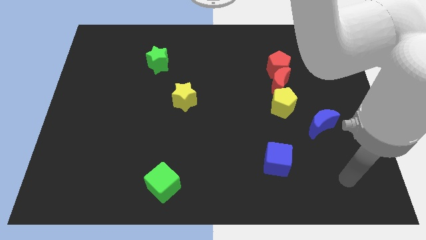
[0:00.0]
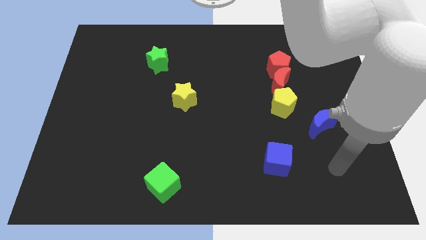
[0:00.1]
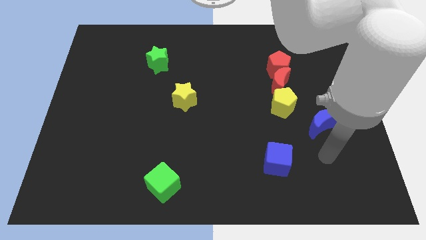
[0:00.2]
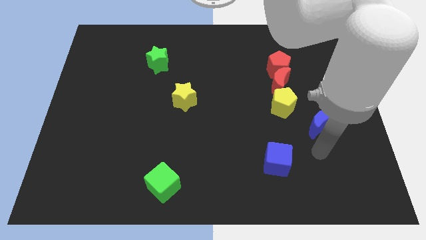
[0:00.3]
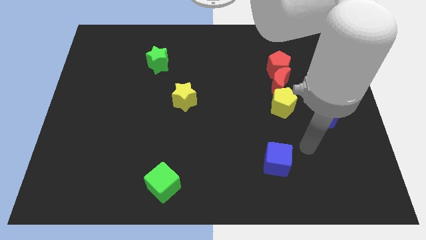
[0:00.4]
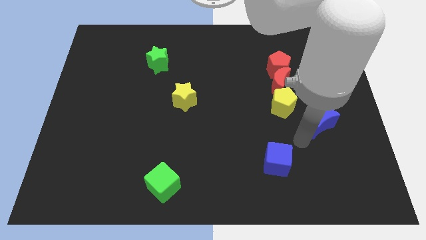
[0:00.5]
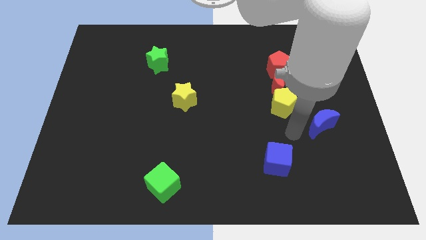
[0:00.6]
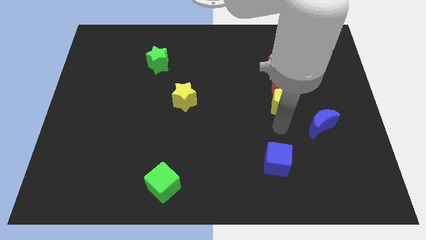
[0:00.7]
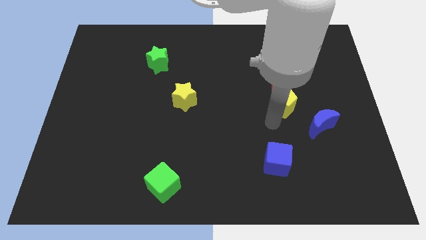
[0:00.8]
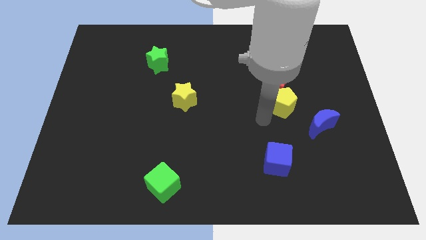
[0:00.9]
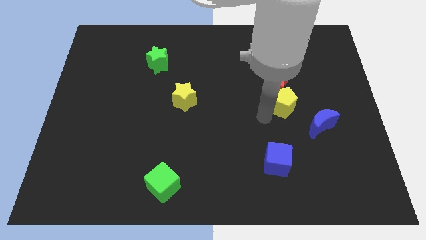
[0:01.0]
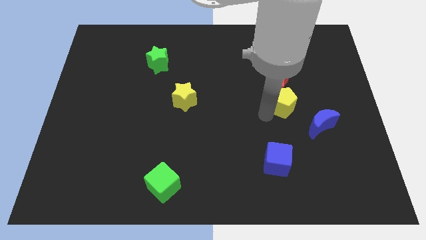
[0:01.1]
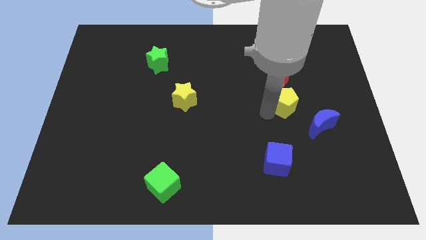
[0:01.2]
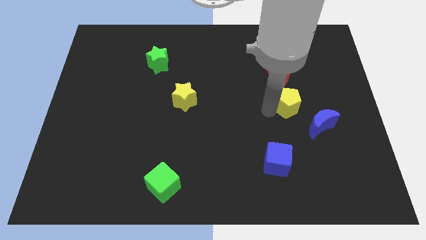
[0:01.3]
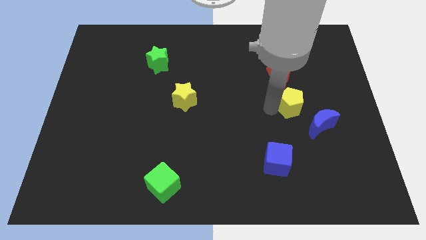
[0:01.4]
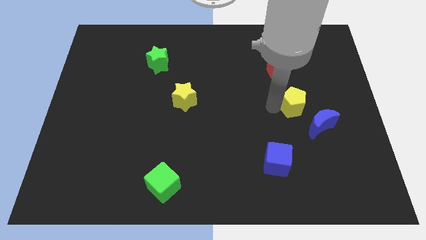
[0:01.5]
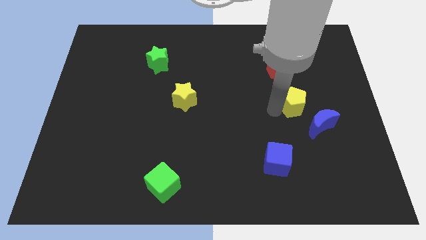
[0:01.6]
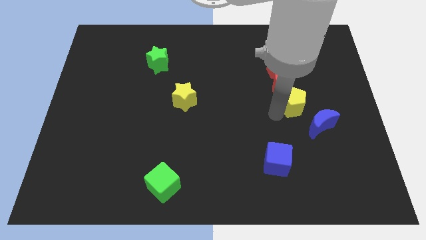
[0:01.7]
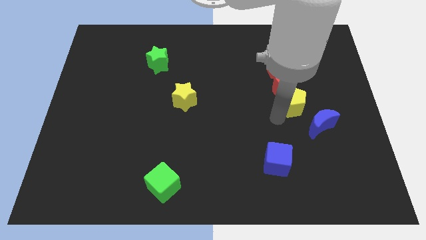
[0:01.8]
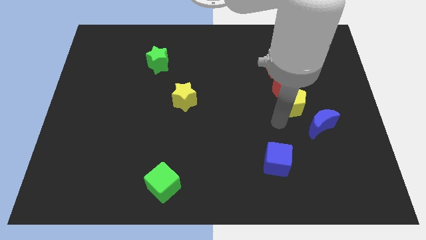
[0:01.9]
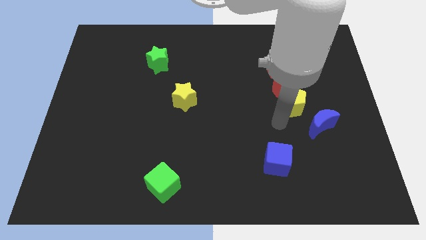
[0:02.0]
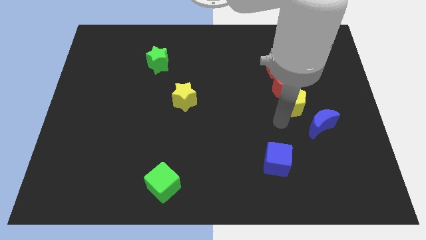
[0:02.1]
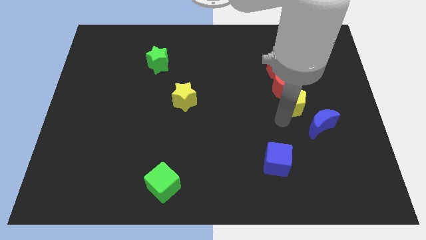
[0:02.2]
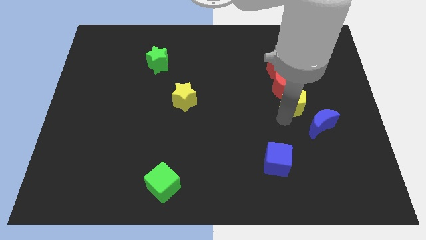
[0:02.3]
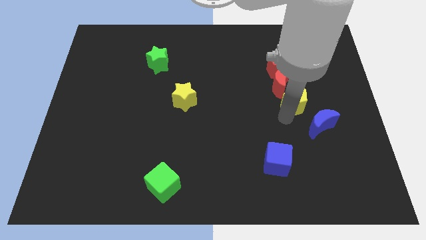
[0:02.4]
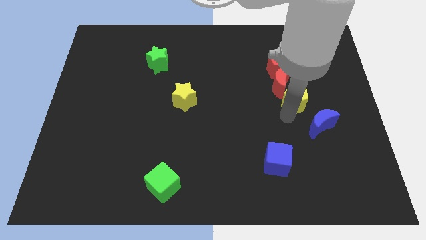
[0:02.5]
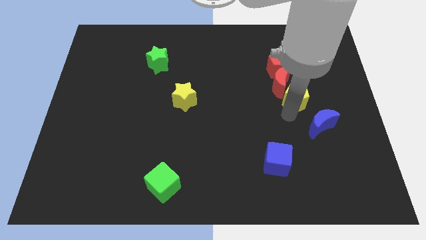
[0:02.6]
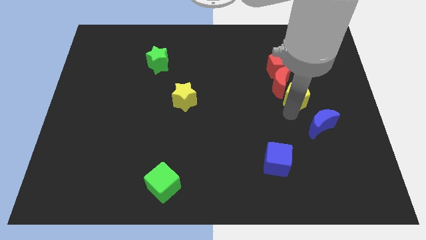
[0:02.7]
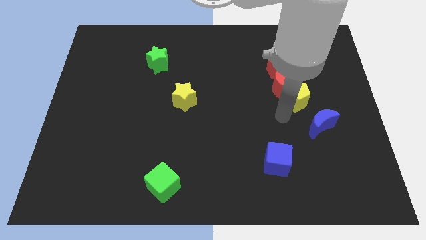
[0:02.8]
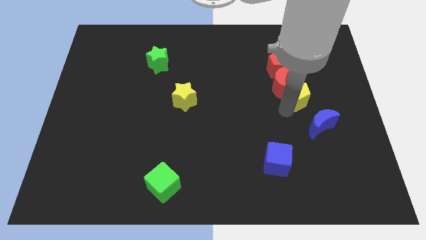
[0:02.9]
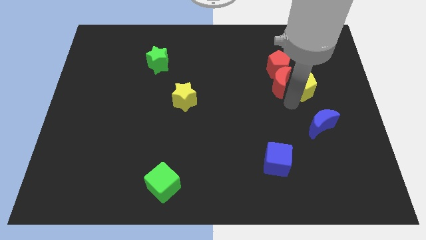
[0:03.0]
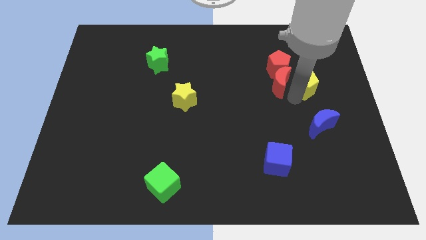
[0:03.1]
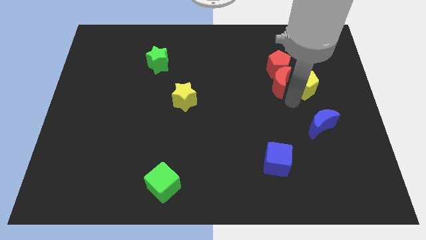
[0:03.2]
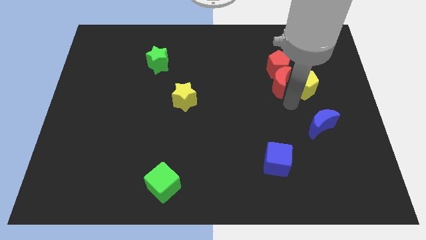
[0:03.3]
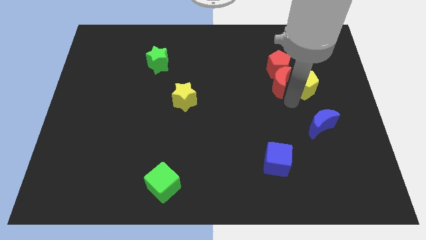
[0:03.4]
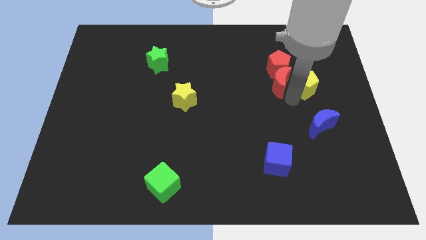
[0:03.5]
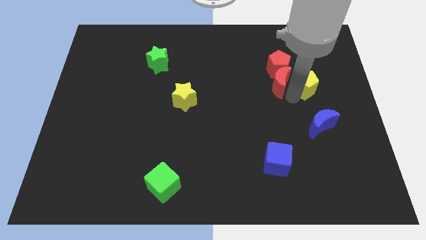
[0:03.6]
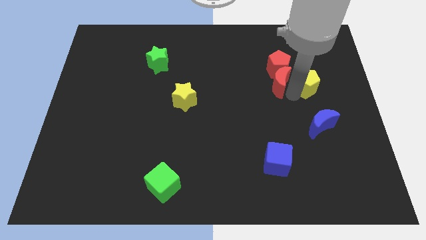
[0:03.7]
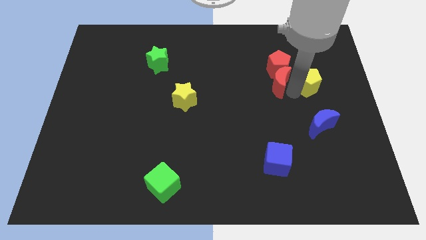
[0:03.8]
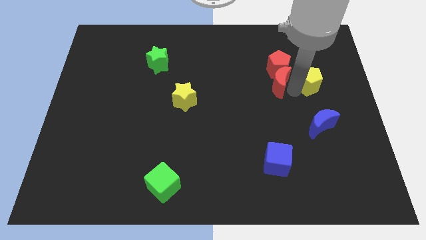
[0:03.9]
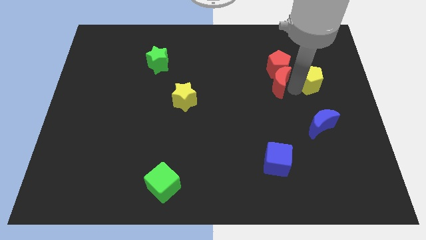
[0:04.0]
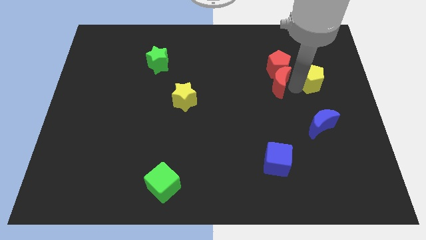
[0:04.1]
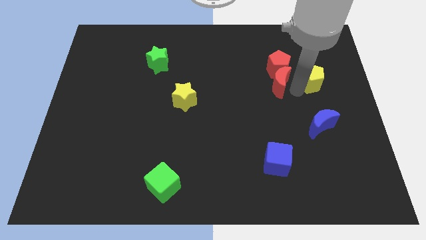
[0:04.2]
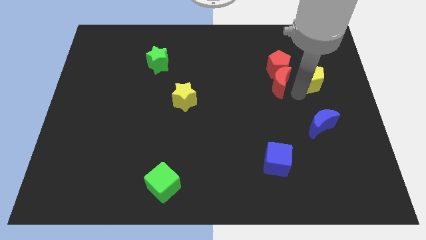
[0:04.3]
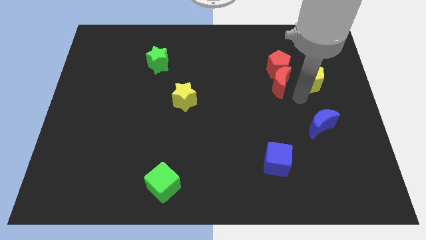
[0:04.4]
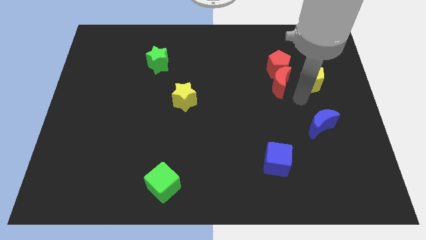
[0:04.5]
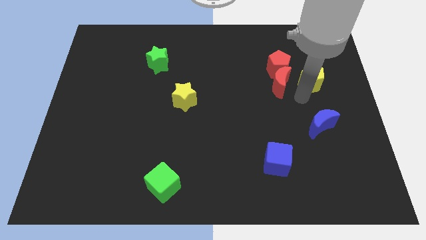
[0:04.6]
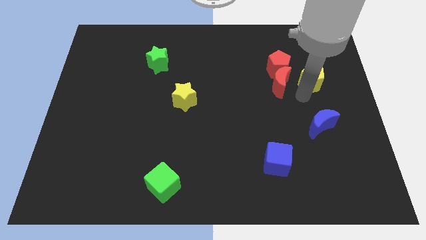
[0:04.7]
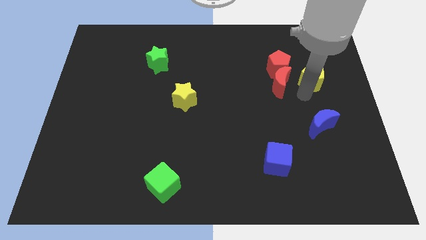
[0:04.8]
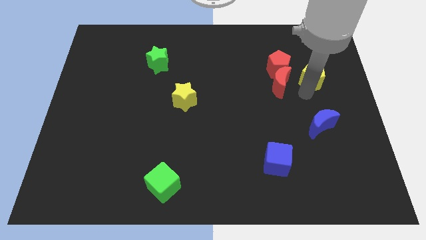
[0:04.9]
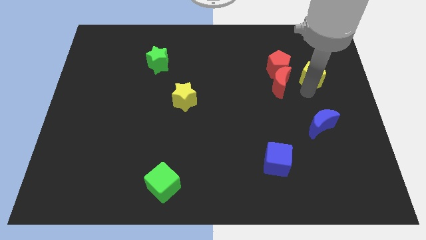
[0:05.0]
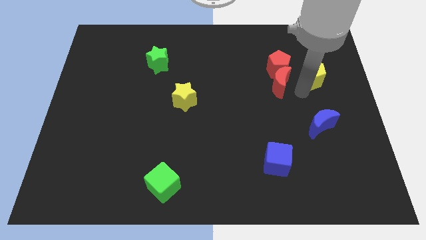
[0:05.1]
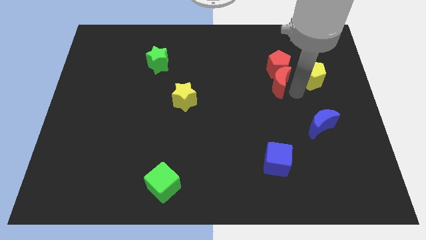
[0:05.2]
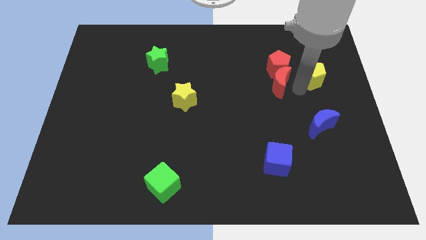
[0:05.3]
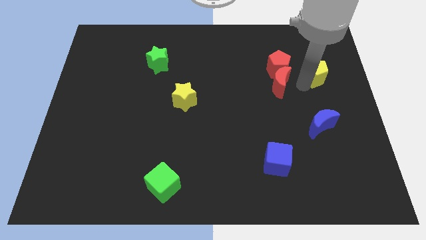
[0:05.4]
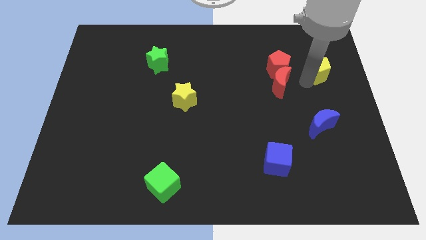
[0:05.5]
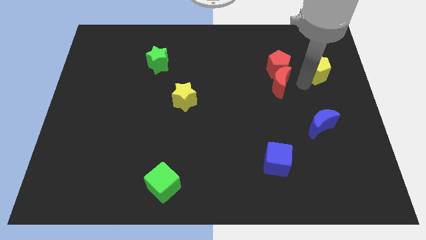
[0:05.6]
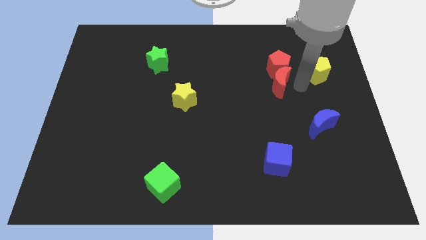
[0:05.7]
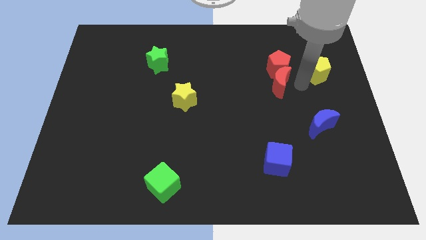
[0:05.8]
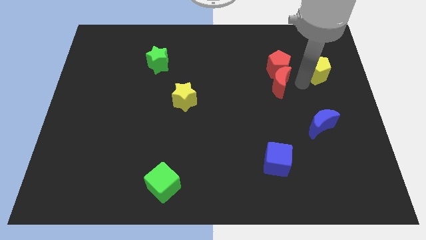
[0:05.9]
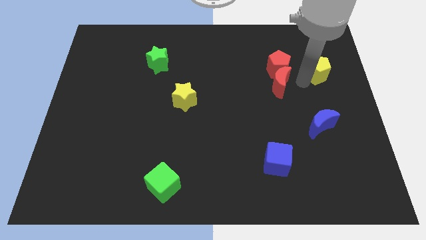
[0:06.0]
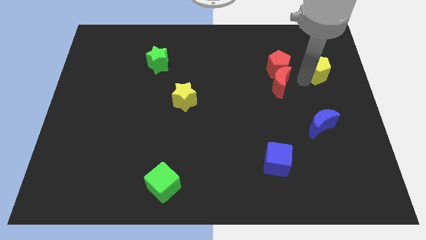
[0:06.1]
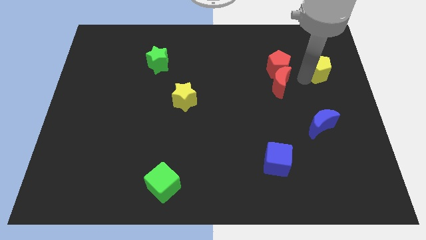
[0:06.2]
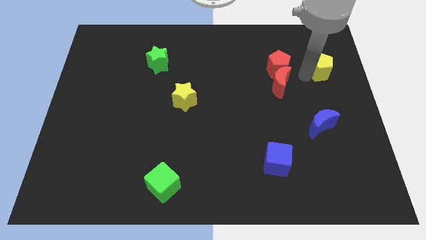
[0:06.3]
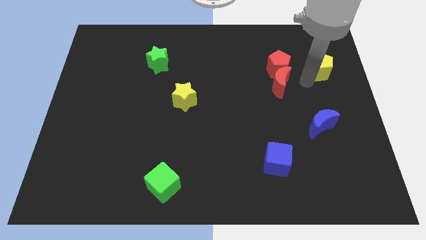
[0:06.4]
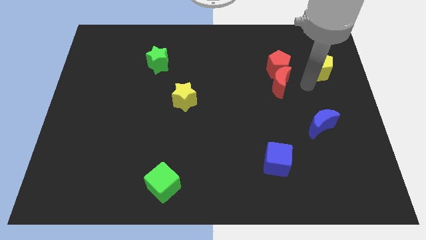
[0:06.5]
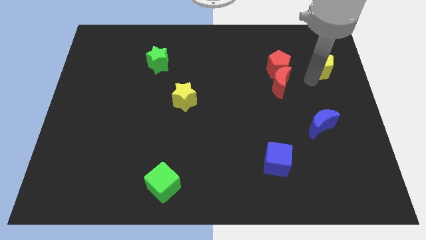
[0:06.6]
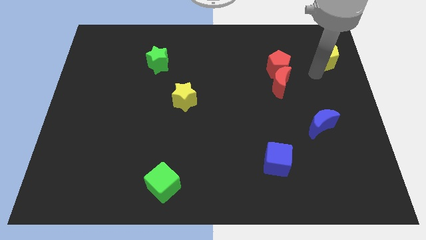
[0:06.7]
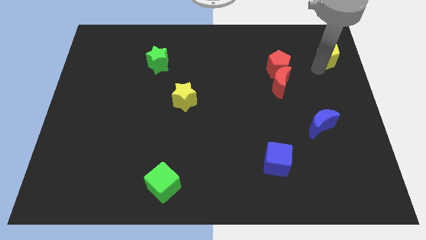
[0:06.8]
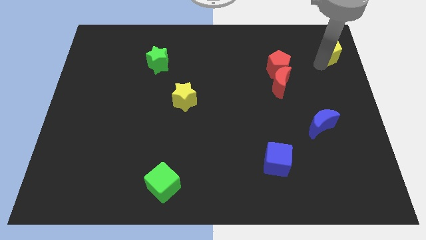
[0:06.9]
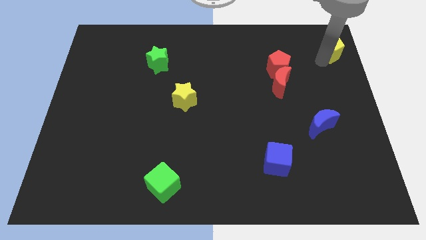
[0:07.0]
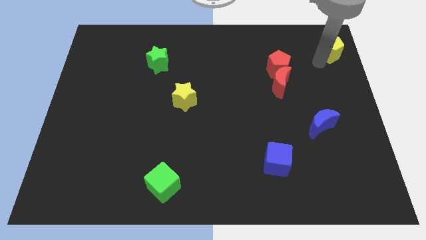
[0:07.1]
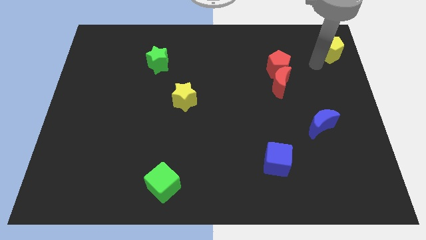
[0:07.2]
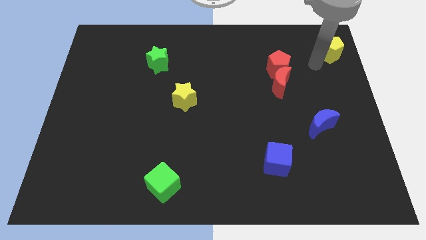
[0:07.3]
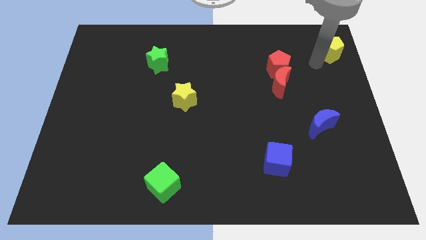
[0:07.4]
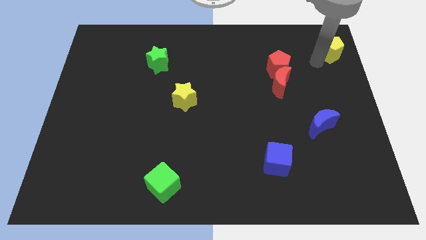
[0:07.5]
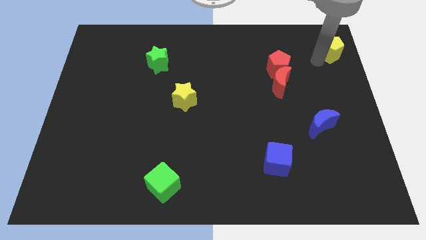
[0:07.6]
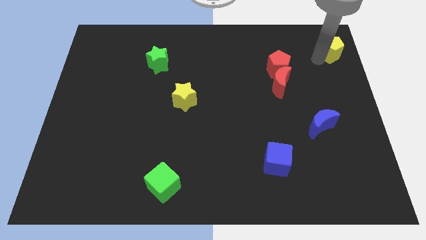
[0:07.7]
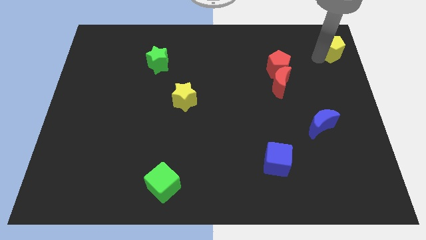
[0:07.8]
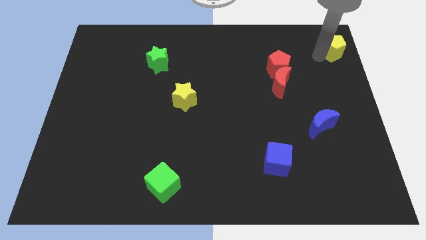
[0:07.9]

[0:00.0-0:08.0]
slide the yellow pentagon to the top right

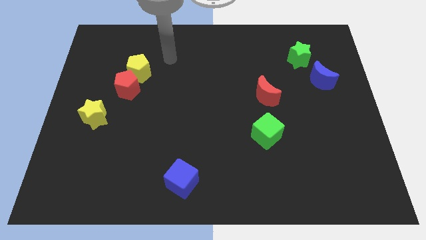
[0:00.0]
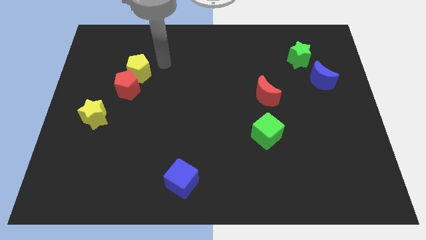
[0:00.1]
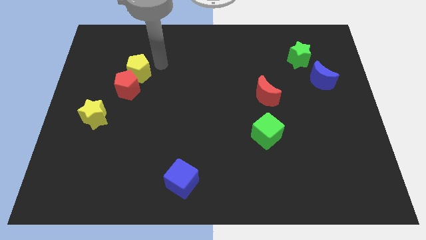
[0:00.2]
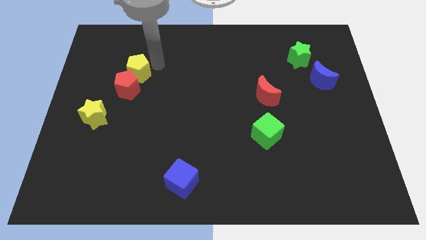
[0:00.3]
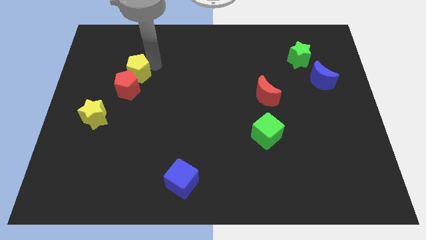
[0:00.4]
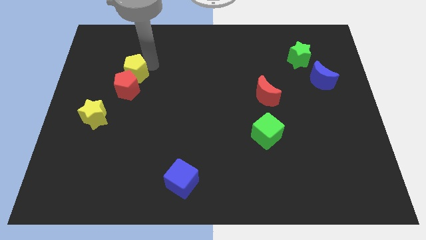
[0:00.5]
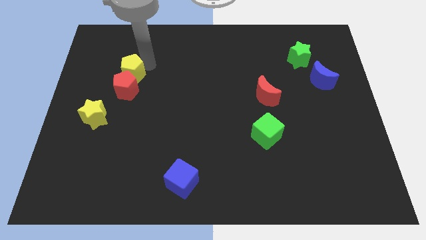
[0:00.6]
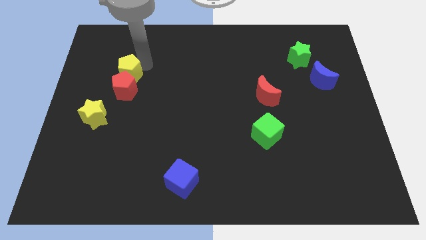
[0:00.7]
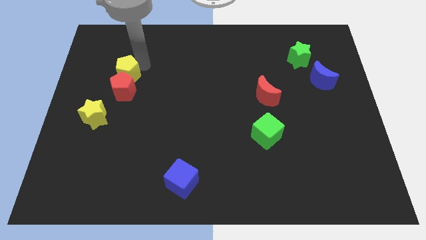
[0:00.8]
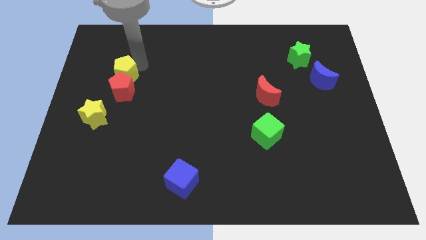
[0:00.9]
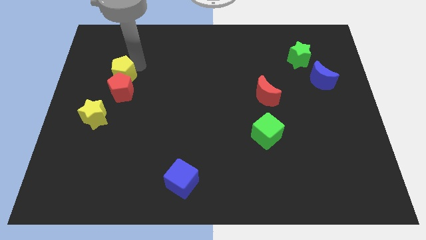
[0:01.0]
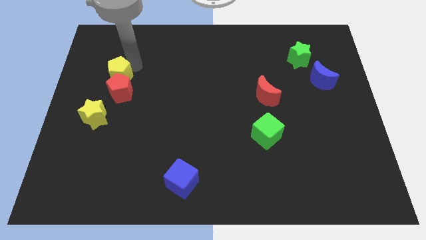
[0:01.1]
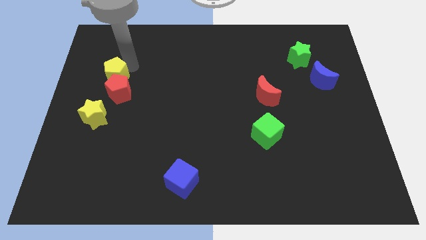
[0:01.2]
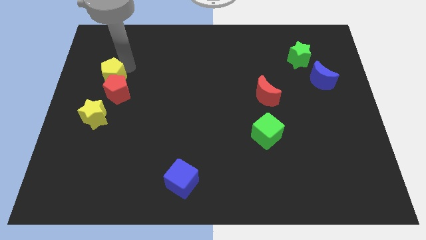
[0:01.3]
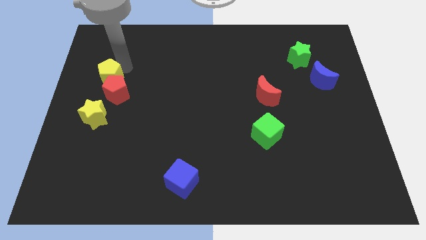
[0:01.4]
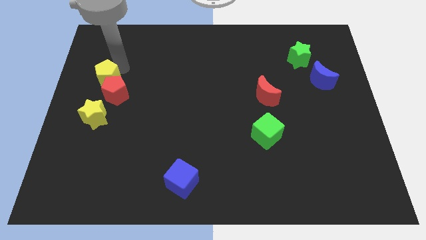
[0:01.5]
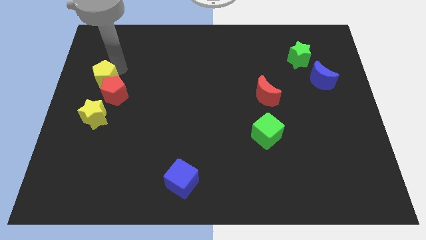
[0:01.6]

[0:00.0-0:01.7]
slide the yellow pentagon to the left side
